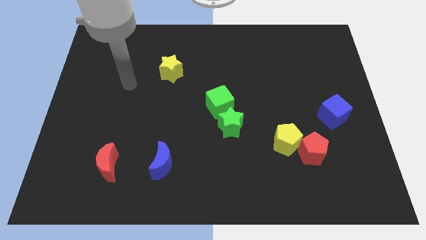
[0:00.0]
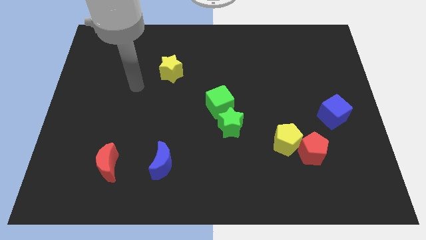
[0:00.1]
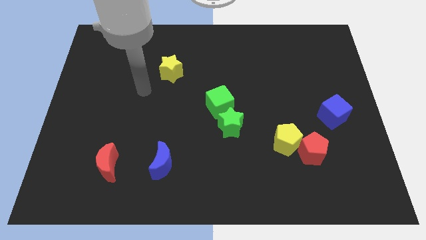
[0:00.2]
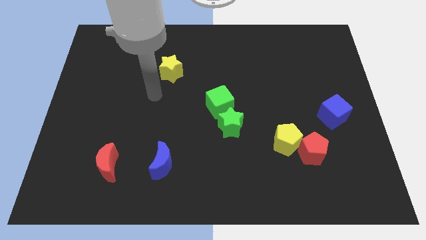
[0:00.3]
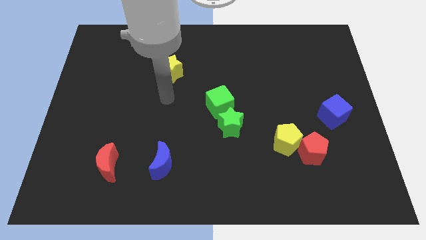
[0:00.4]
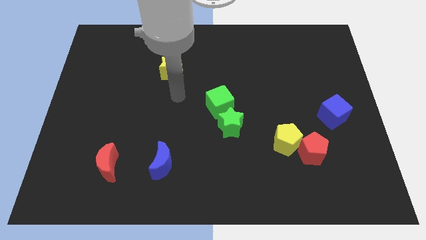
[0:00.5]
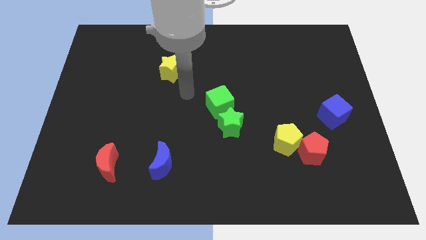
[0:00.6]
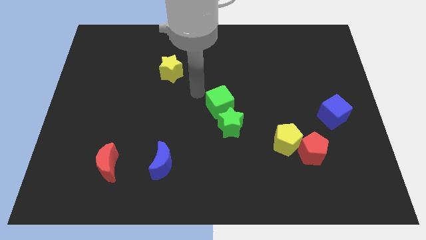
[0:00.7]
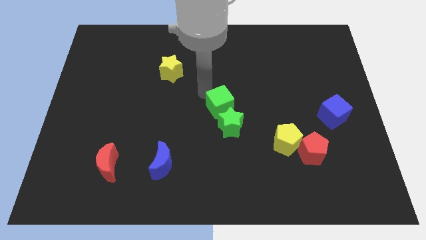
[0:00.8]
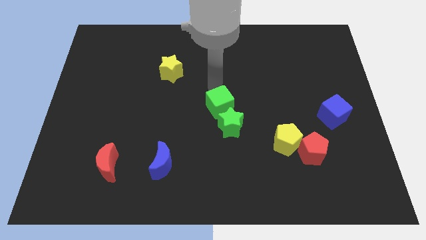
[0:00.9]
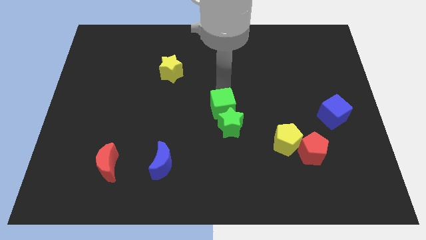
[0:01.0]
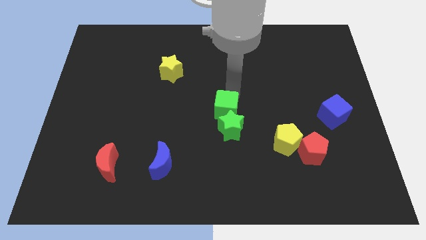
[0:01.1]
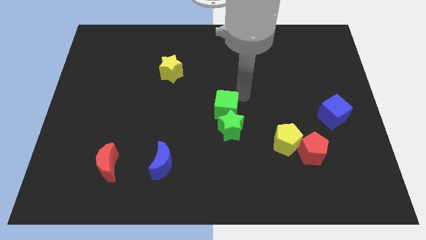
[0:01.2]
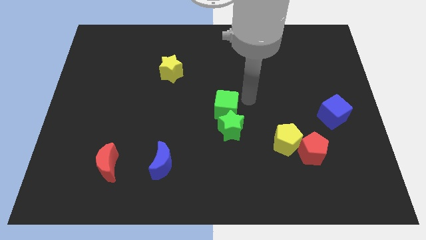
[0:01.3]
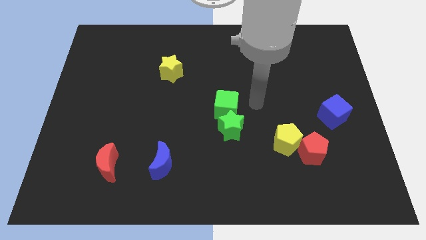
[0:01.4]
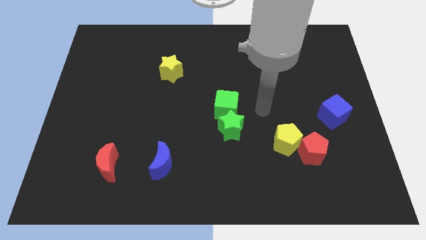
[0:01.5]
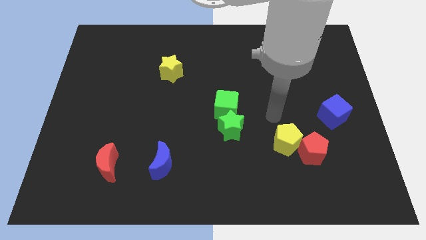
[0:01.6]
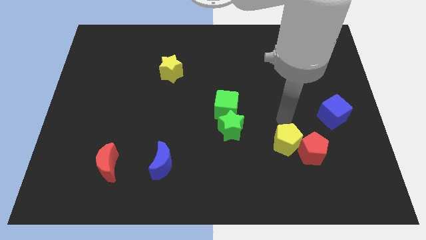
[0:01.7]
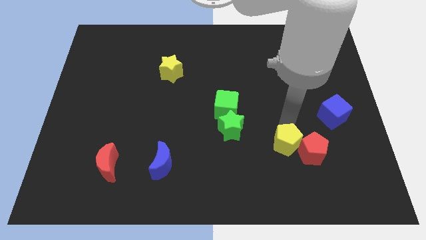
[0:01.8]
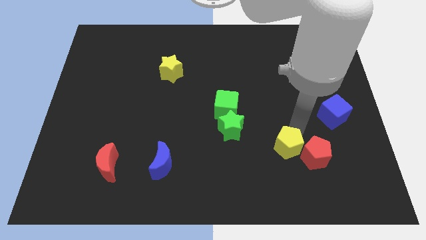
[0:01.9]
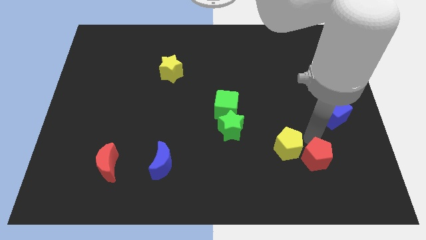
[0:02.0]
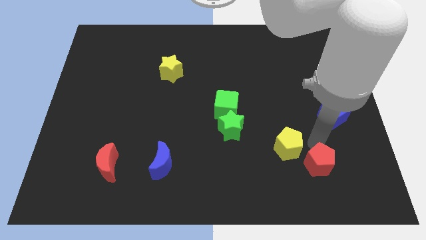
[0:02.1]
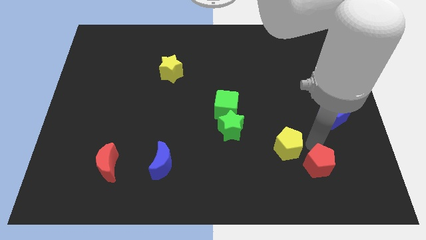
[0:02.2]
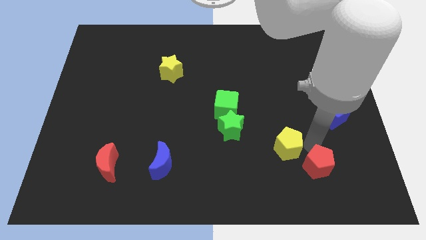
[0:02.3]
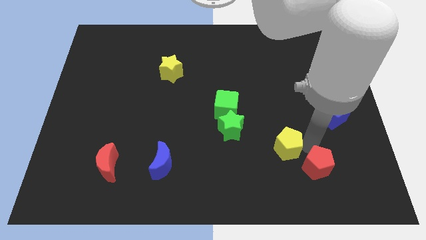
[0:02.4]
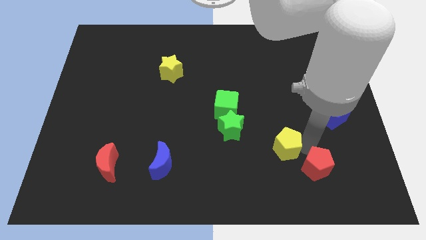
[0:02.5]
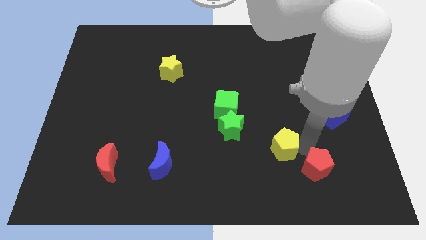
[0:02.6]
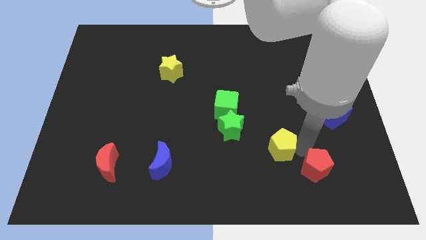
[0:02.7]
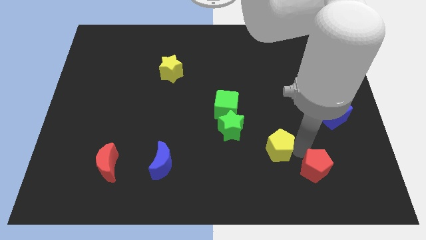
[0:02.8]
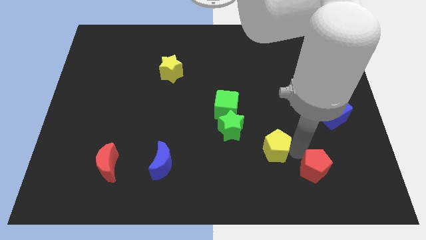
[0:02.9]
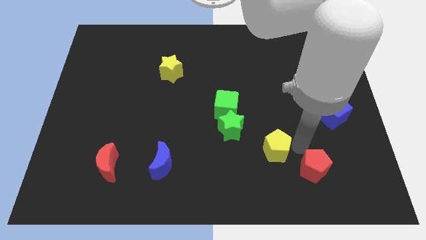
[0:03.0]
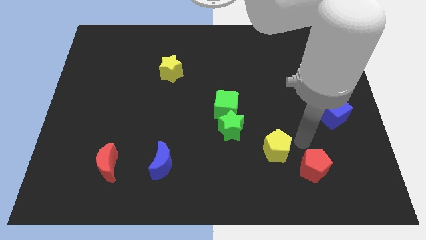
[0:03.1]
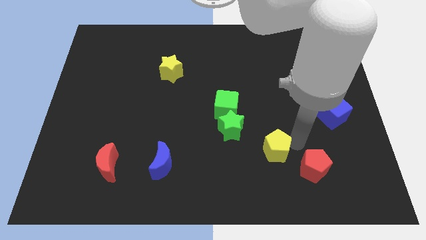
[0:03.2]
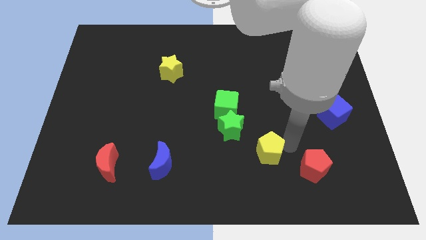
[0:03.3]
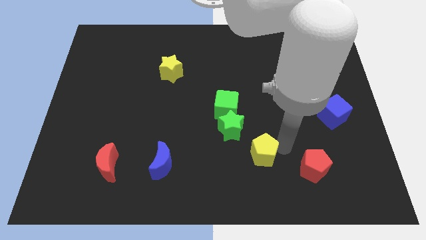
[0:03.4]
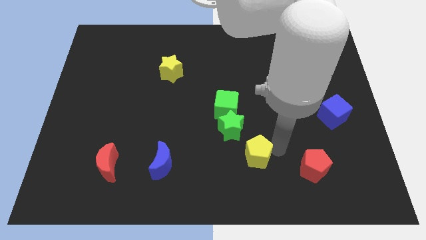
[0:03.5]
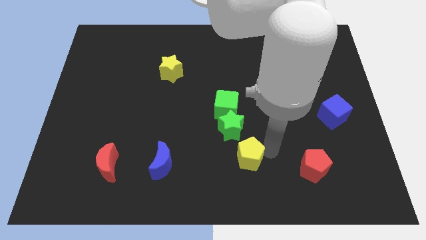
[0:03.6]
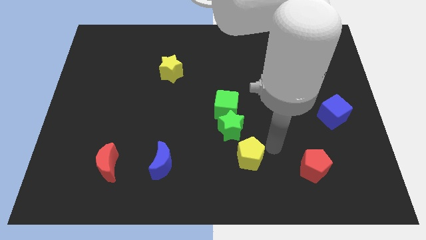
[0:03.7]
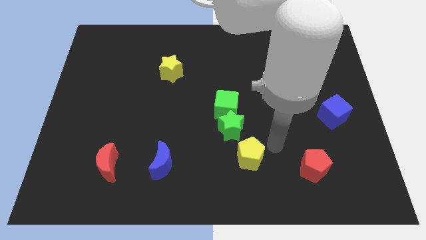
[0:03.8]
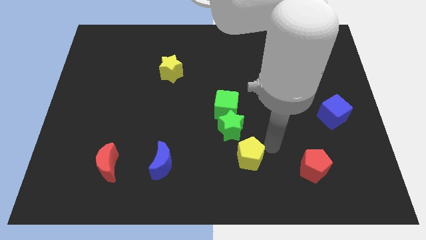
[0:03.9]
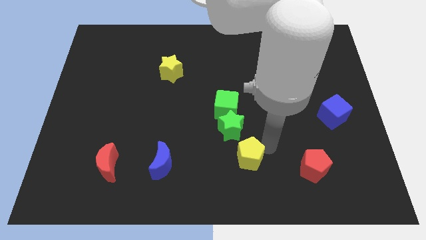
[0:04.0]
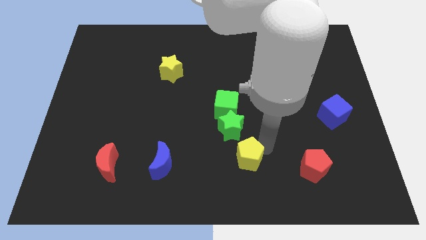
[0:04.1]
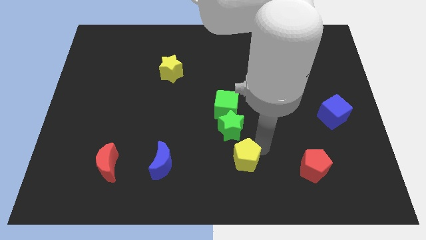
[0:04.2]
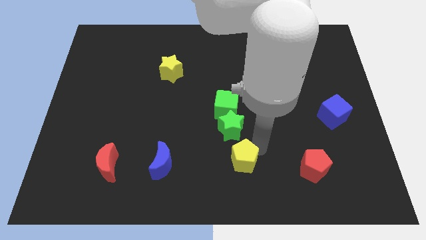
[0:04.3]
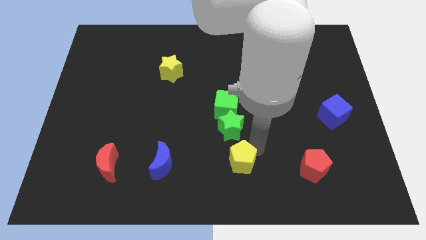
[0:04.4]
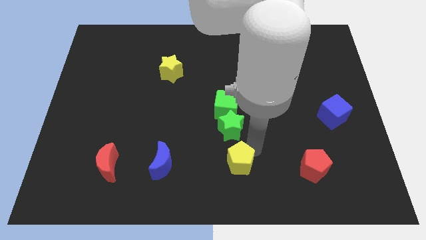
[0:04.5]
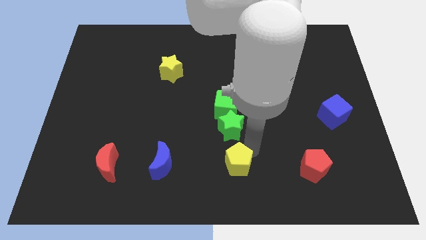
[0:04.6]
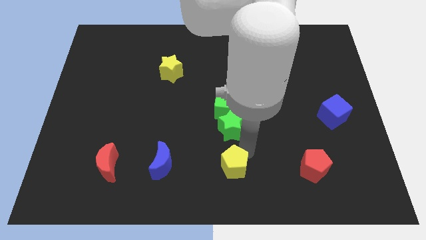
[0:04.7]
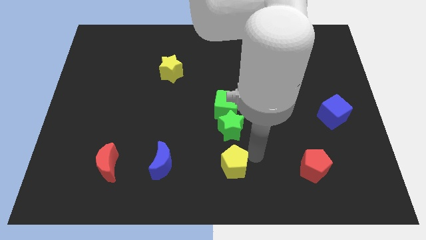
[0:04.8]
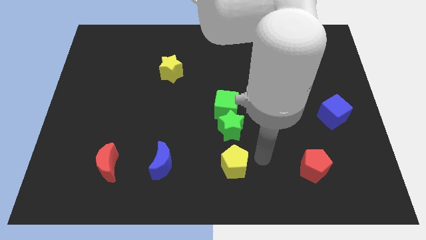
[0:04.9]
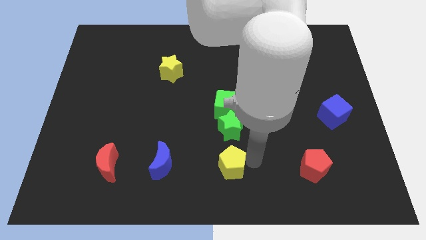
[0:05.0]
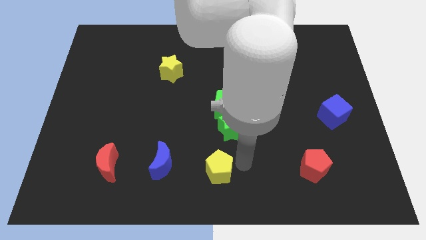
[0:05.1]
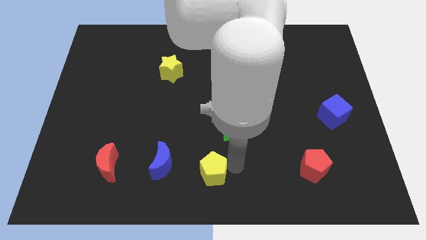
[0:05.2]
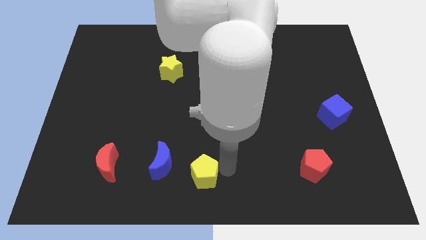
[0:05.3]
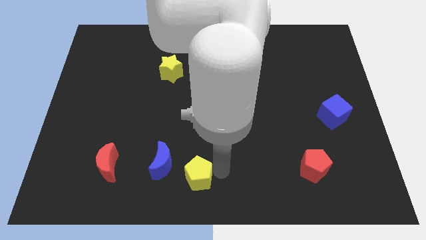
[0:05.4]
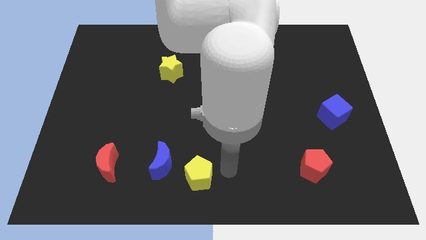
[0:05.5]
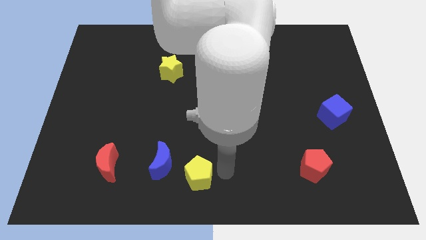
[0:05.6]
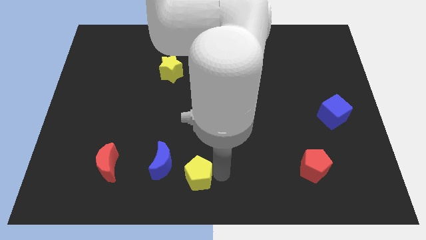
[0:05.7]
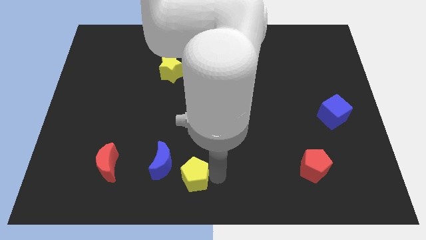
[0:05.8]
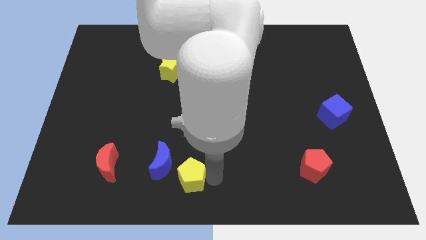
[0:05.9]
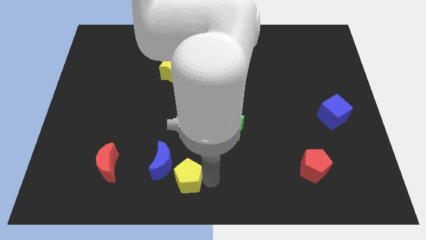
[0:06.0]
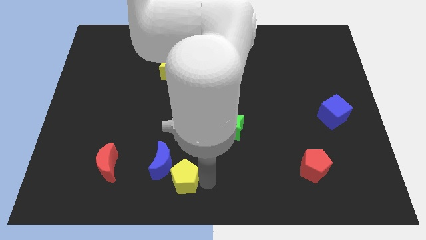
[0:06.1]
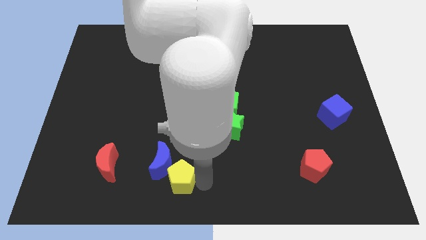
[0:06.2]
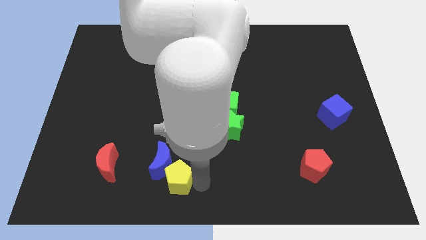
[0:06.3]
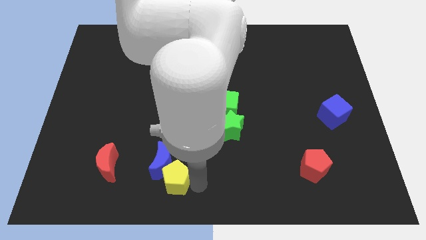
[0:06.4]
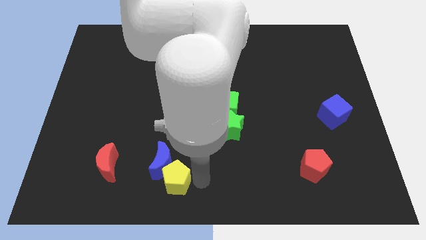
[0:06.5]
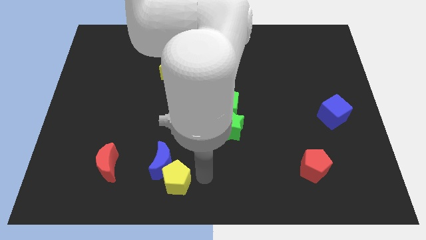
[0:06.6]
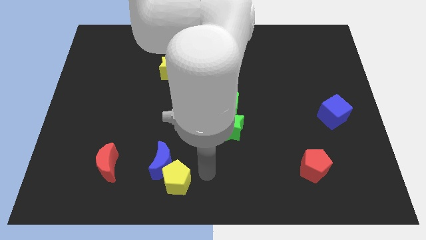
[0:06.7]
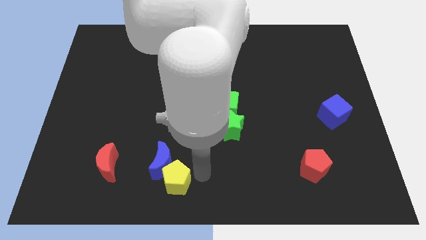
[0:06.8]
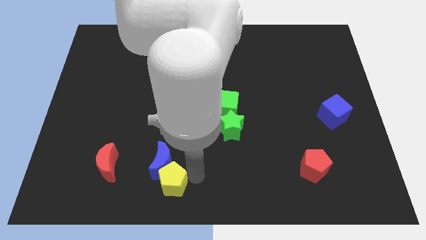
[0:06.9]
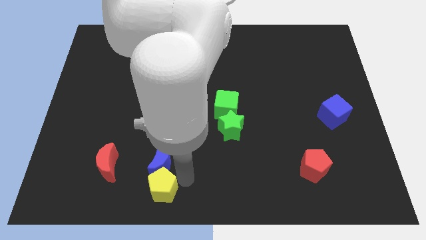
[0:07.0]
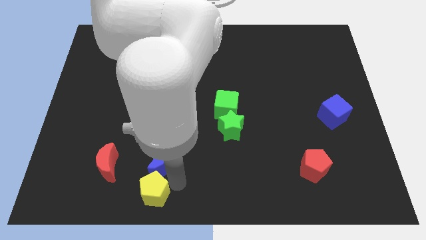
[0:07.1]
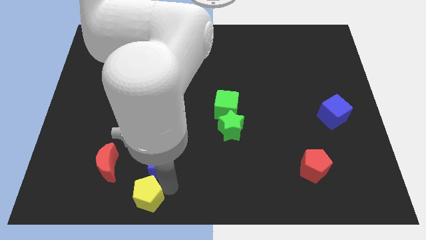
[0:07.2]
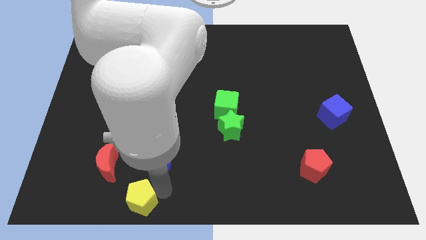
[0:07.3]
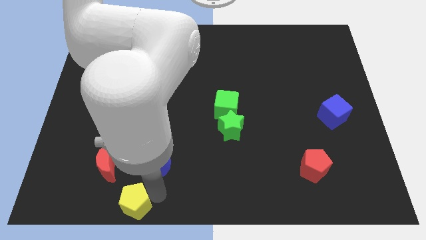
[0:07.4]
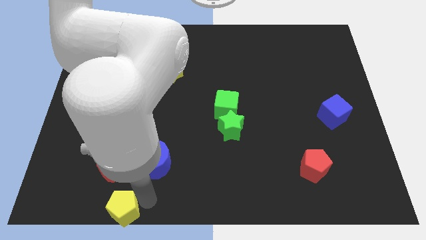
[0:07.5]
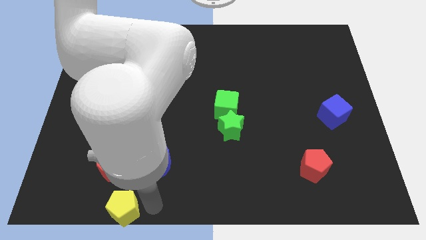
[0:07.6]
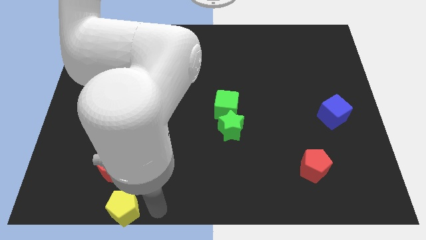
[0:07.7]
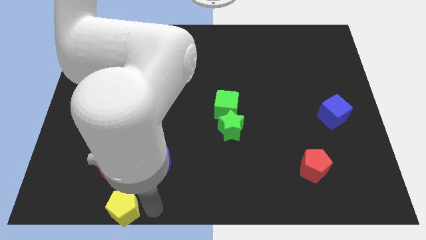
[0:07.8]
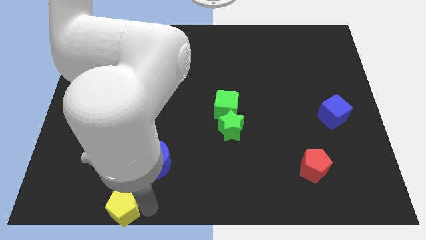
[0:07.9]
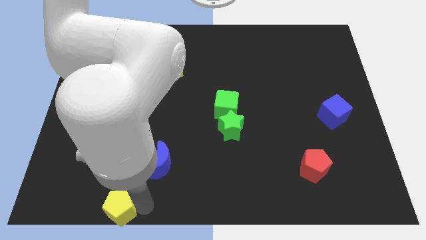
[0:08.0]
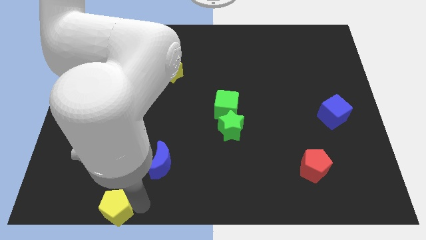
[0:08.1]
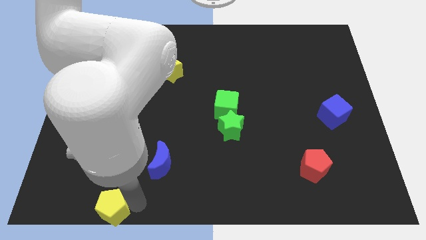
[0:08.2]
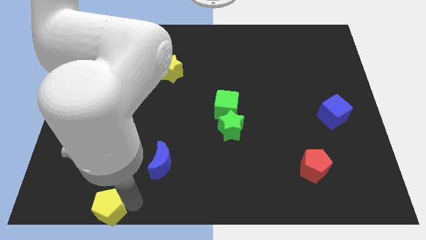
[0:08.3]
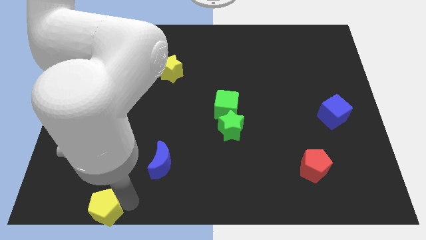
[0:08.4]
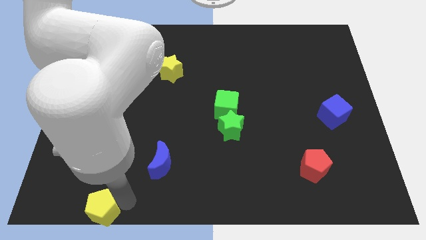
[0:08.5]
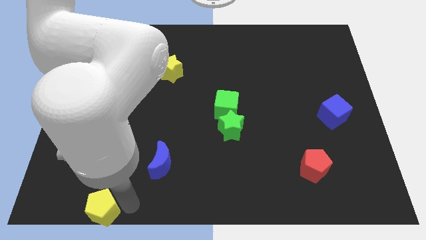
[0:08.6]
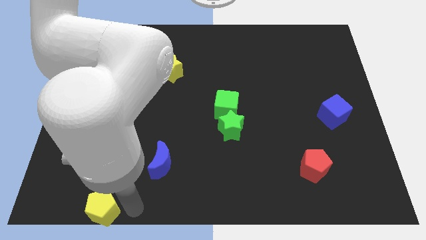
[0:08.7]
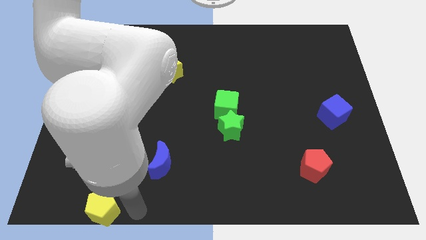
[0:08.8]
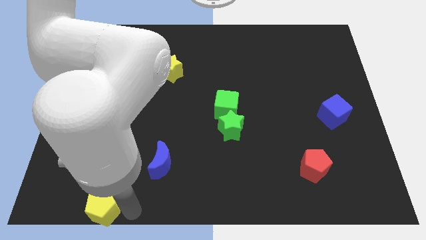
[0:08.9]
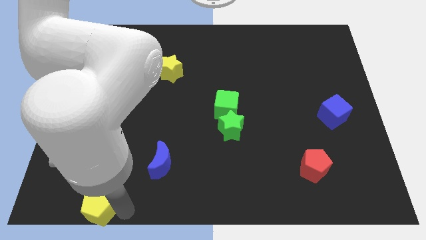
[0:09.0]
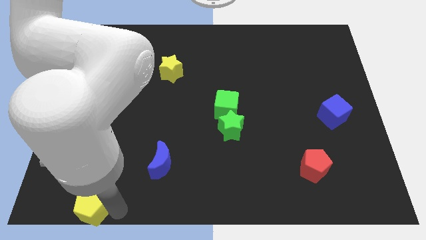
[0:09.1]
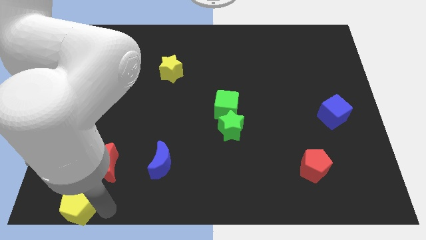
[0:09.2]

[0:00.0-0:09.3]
put the yellow pentagon to the bottom left
